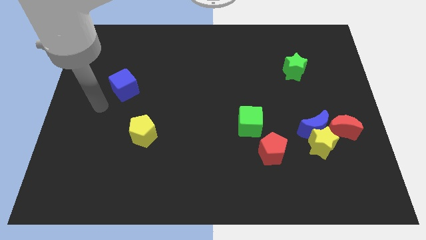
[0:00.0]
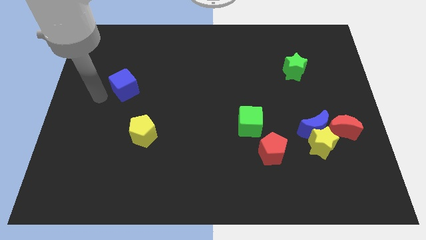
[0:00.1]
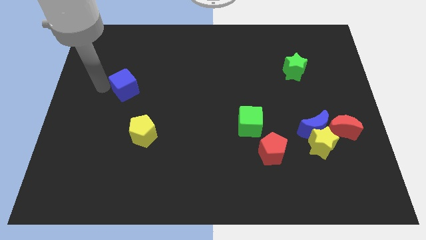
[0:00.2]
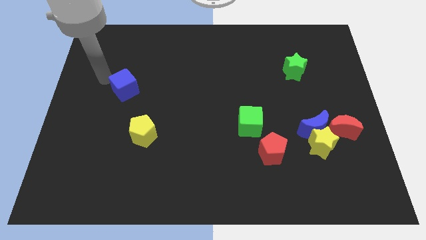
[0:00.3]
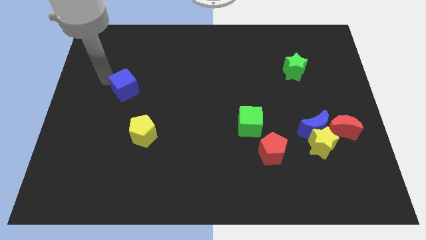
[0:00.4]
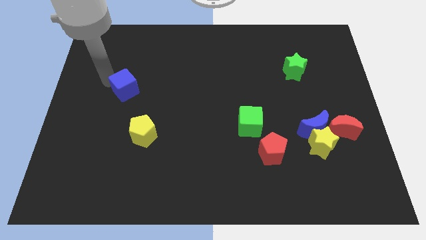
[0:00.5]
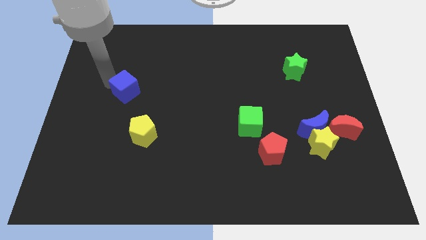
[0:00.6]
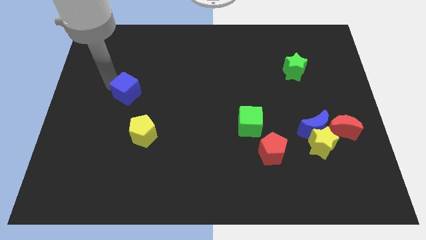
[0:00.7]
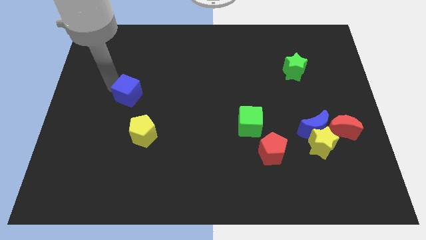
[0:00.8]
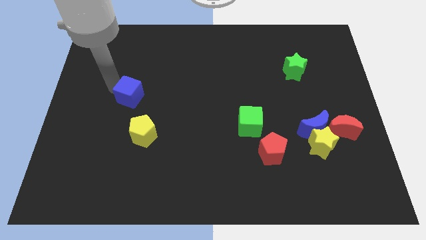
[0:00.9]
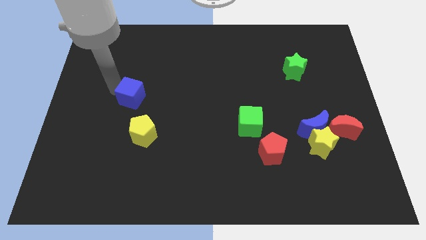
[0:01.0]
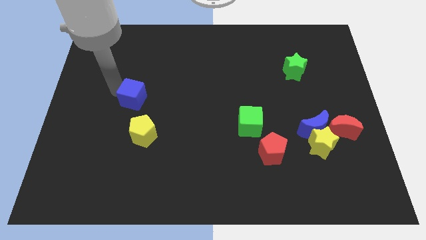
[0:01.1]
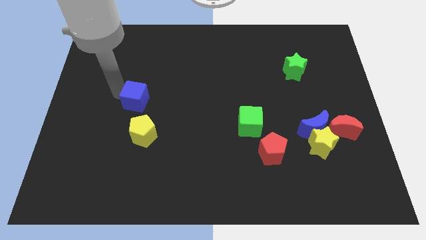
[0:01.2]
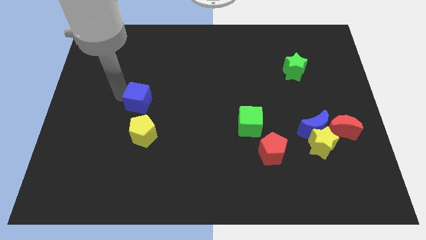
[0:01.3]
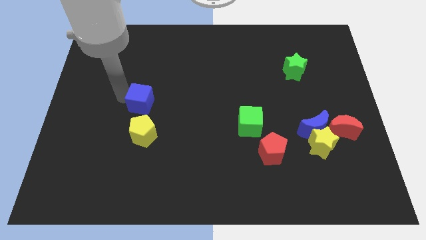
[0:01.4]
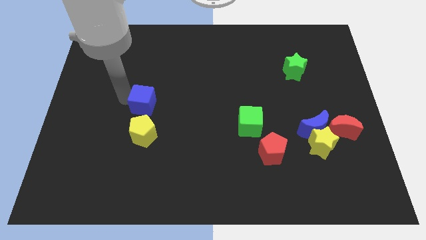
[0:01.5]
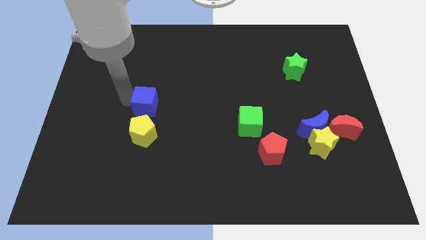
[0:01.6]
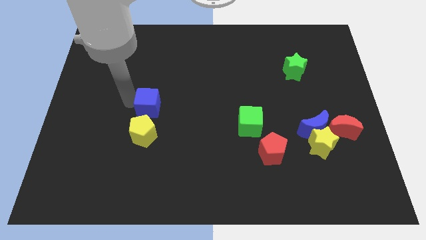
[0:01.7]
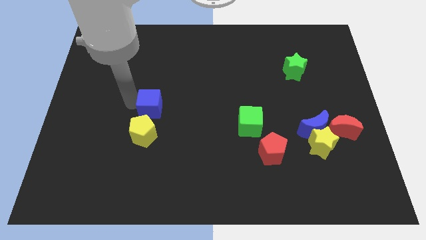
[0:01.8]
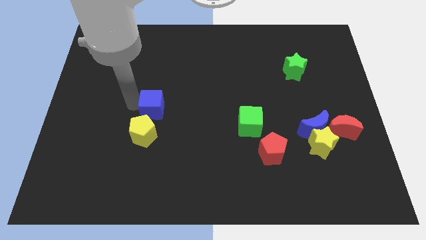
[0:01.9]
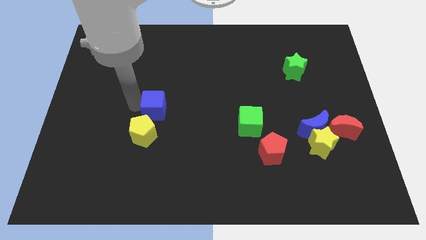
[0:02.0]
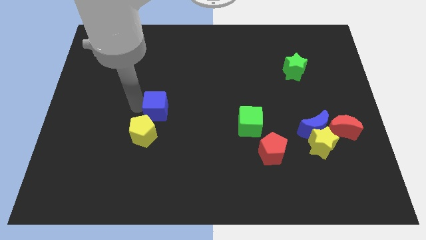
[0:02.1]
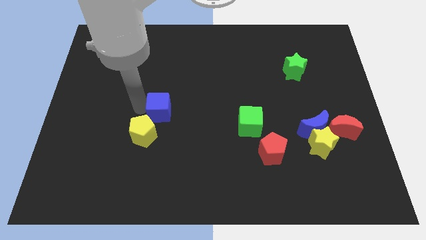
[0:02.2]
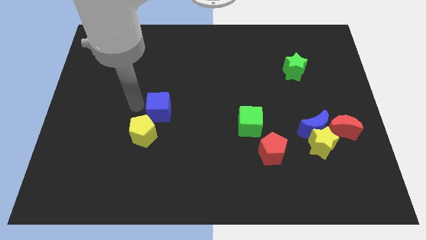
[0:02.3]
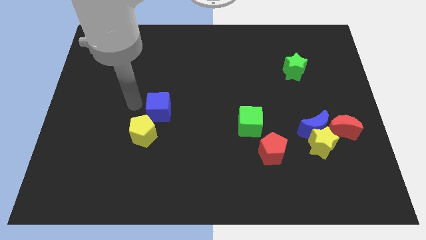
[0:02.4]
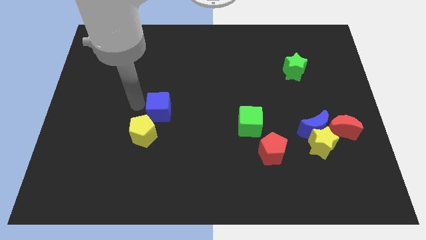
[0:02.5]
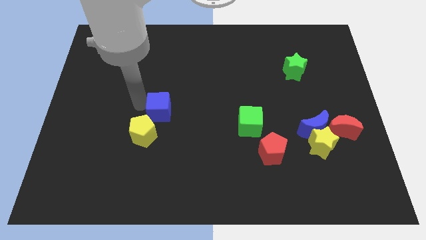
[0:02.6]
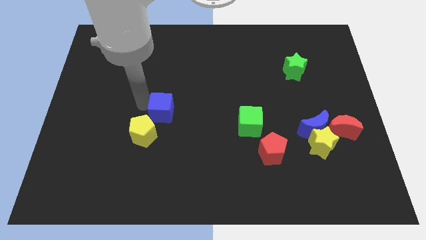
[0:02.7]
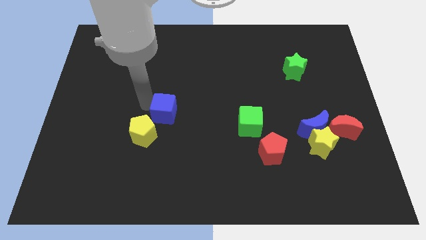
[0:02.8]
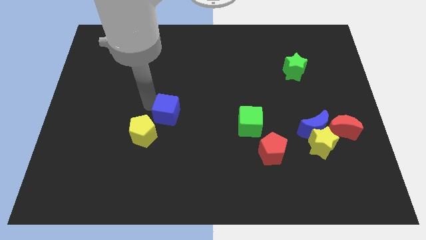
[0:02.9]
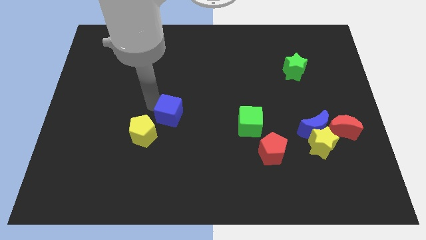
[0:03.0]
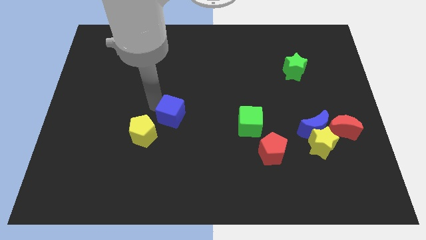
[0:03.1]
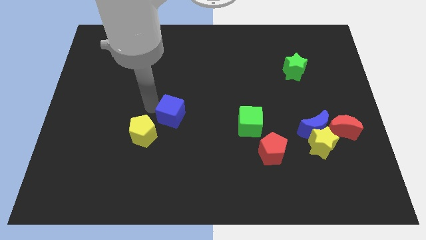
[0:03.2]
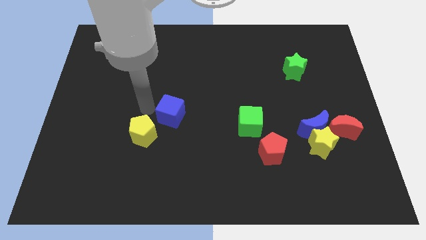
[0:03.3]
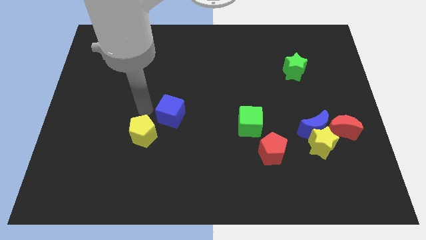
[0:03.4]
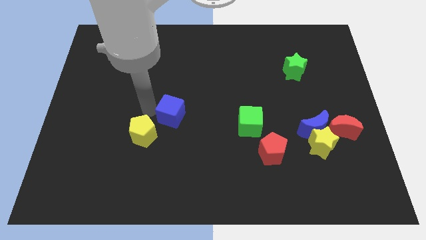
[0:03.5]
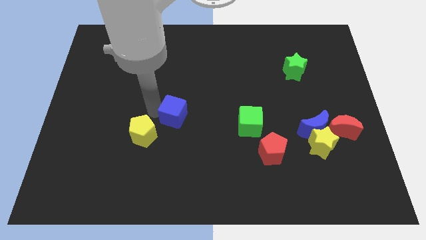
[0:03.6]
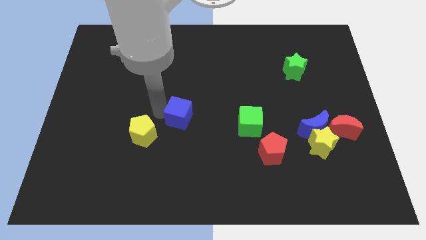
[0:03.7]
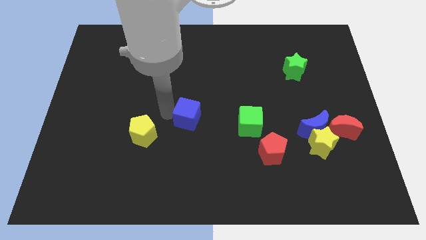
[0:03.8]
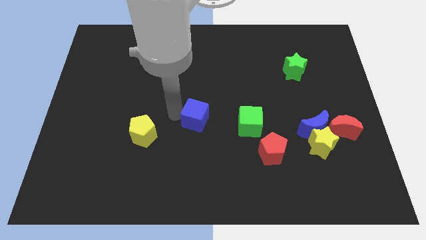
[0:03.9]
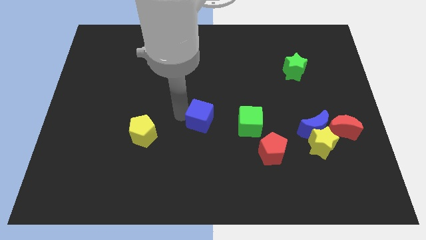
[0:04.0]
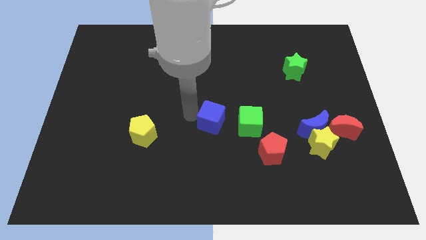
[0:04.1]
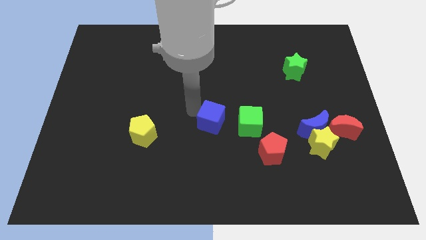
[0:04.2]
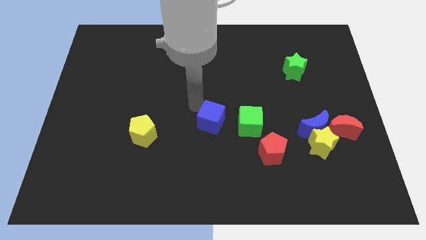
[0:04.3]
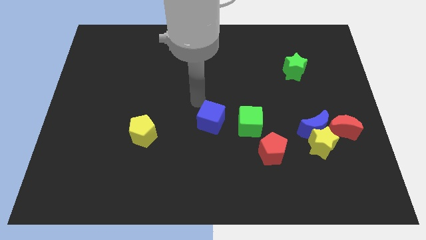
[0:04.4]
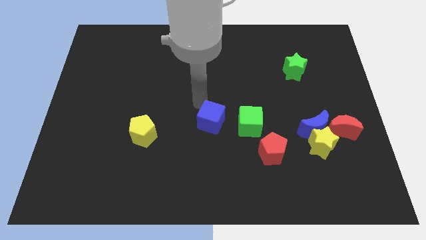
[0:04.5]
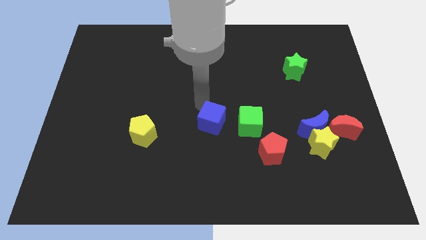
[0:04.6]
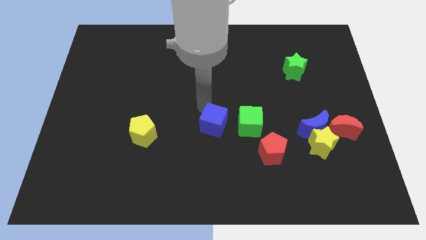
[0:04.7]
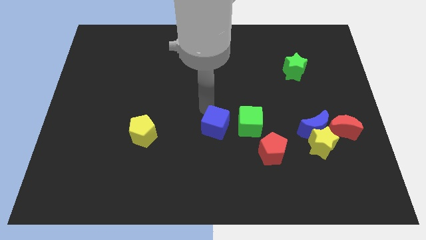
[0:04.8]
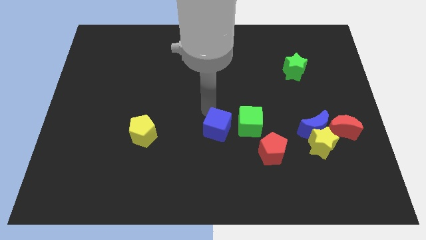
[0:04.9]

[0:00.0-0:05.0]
slide the blue cube to the bottom left side of the green cube

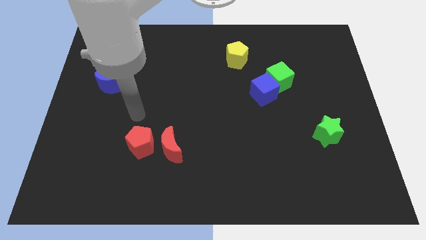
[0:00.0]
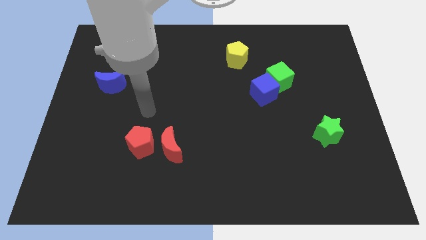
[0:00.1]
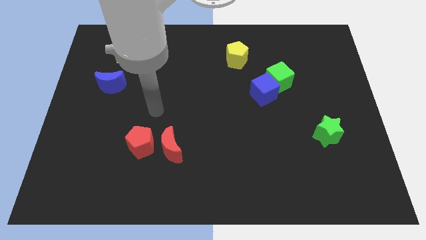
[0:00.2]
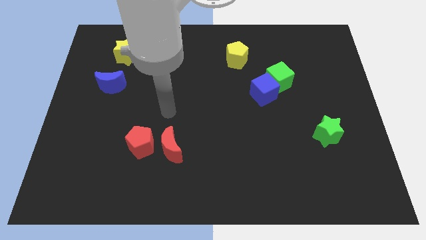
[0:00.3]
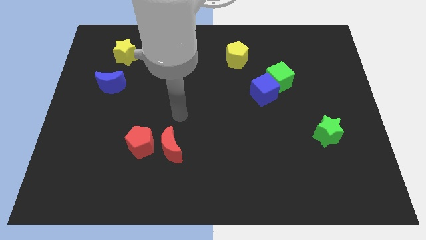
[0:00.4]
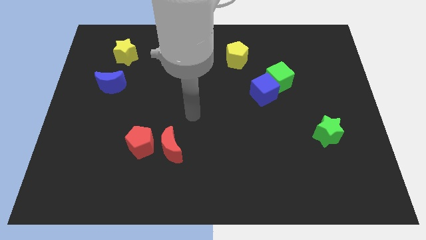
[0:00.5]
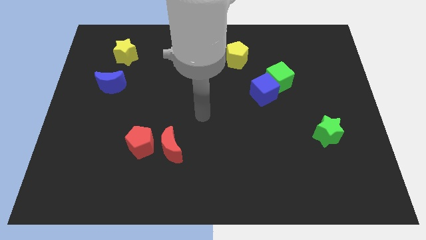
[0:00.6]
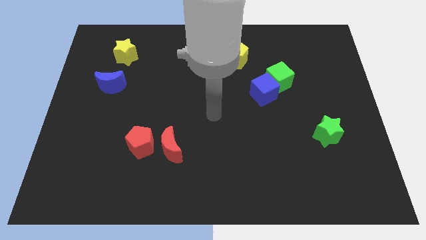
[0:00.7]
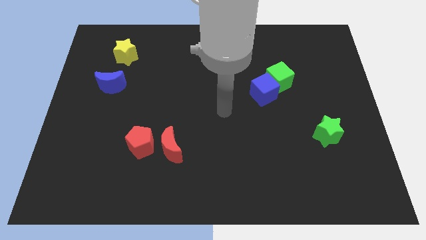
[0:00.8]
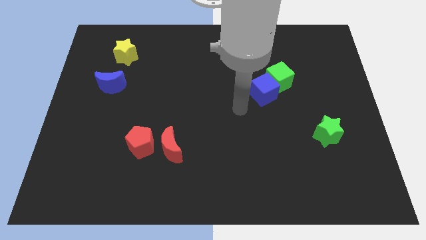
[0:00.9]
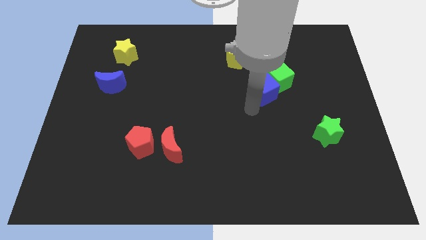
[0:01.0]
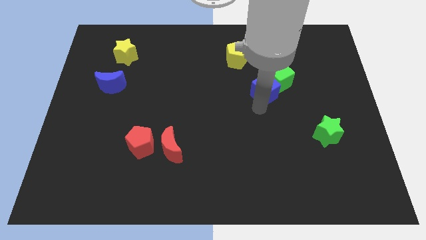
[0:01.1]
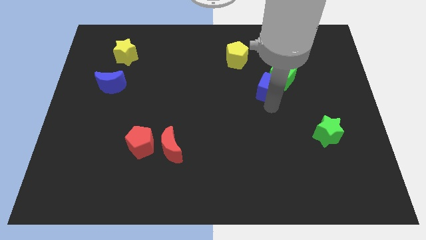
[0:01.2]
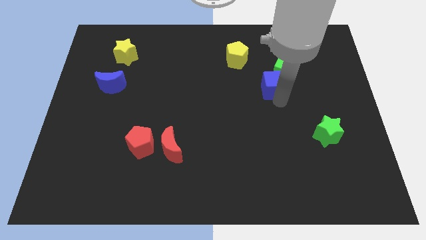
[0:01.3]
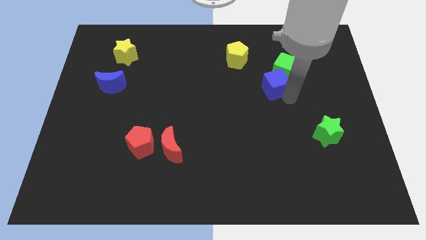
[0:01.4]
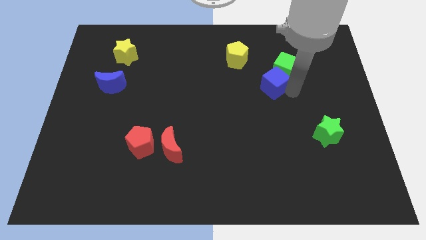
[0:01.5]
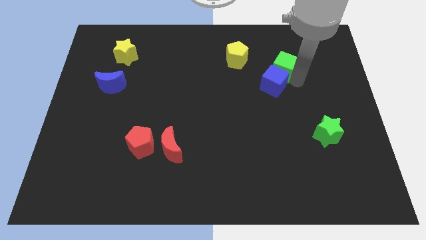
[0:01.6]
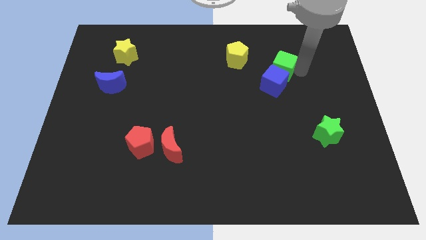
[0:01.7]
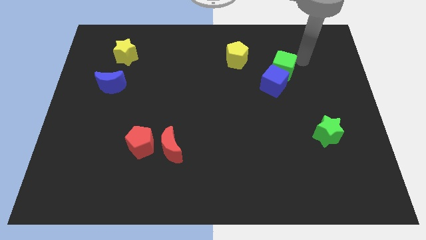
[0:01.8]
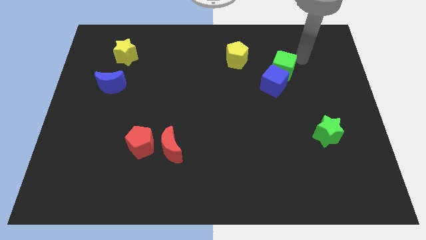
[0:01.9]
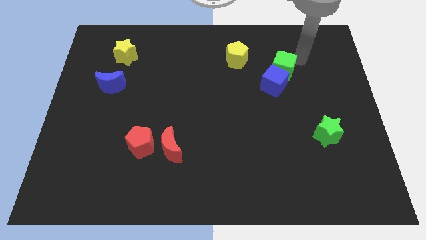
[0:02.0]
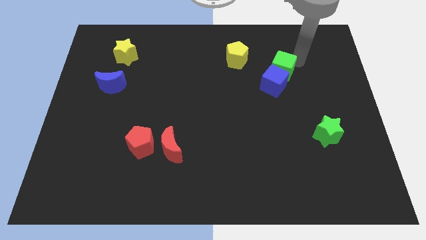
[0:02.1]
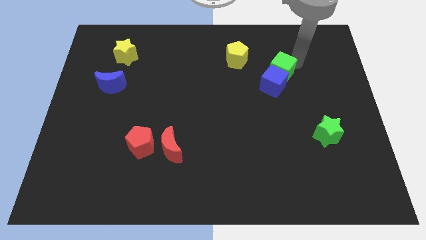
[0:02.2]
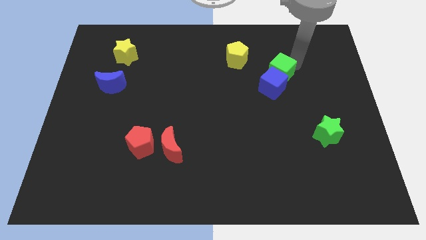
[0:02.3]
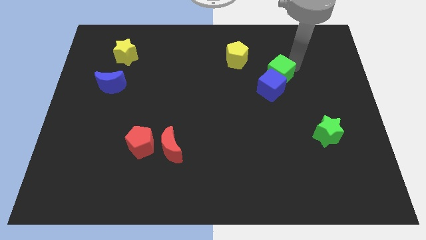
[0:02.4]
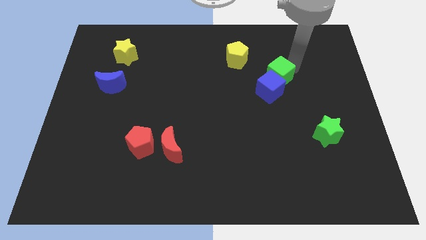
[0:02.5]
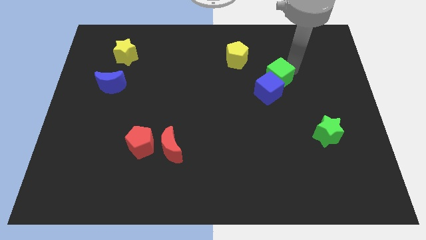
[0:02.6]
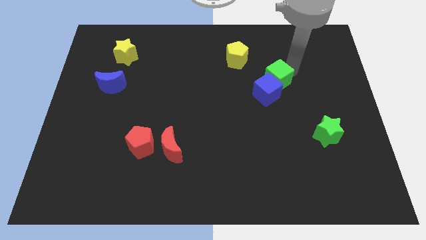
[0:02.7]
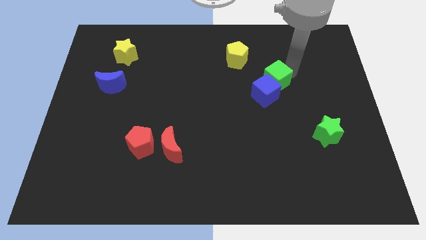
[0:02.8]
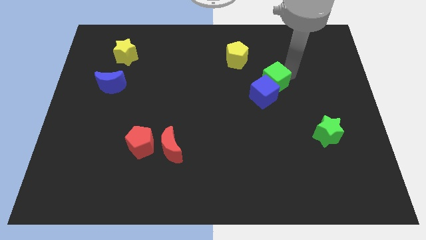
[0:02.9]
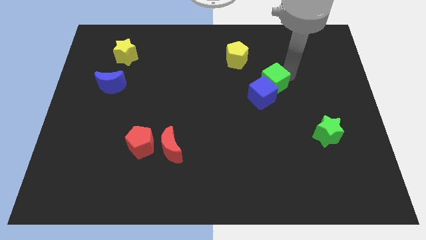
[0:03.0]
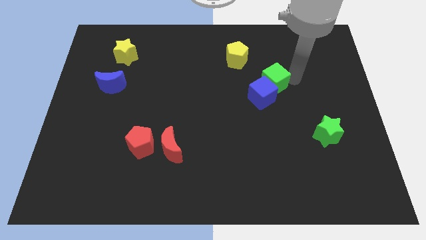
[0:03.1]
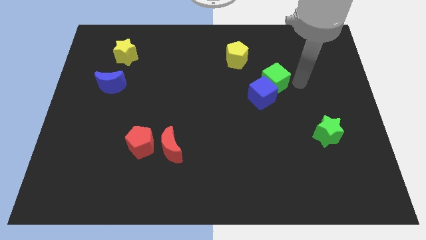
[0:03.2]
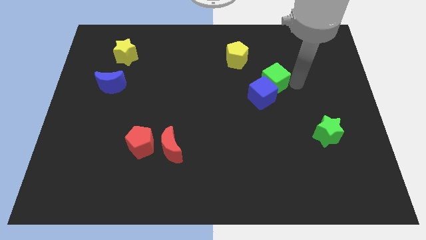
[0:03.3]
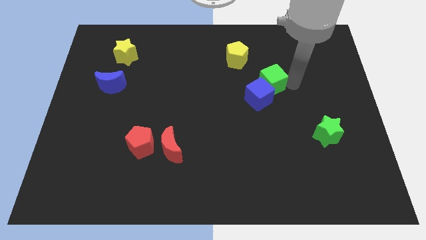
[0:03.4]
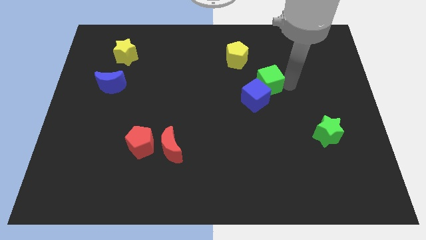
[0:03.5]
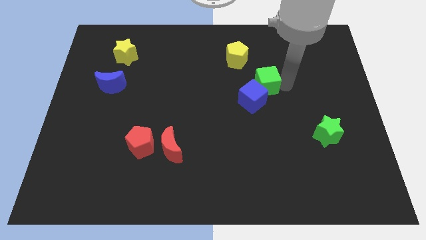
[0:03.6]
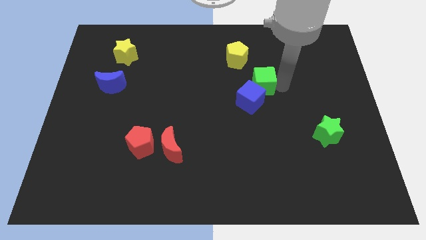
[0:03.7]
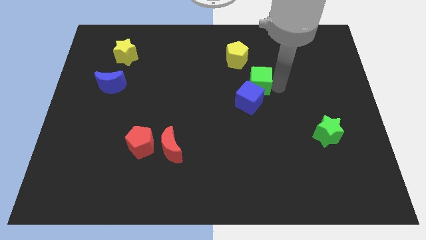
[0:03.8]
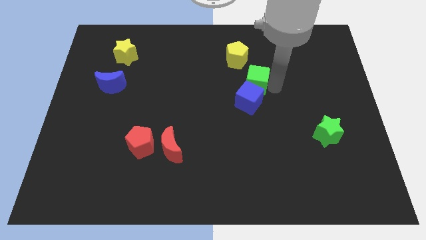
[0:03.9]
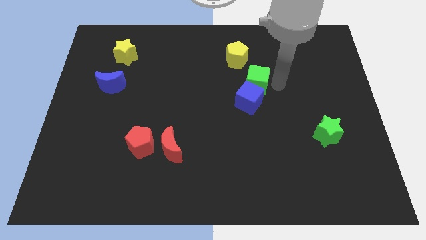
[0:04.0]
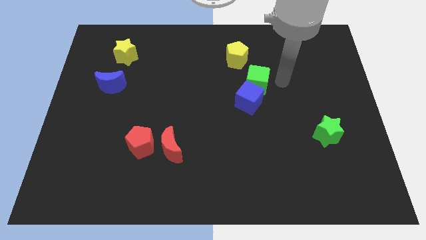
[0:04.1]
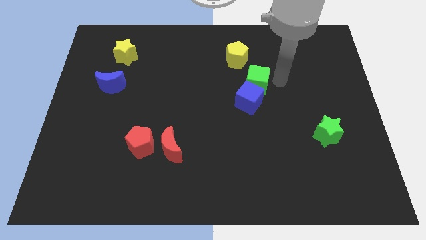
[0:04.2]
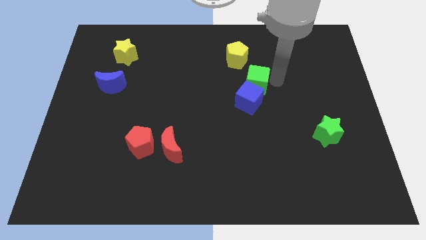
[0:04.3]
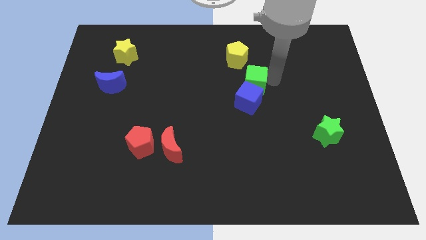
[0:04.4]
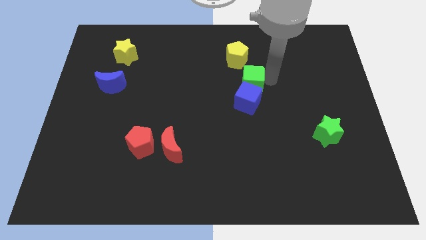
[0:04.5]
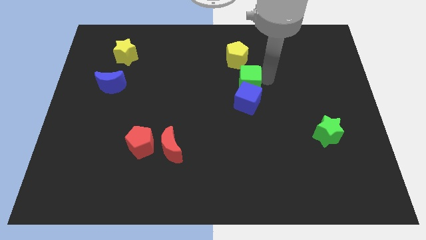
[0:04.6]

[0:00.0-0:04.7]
put the green cube to the top left of the blue cube
